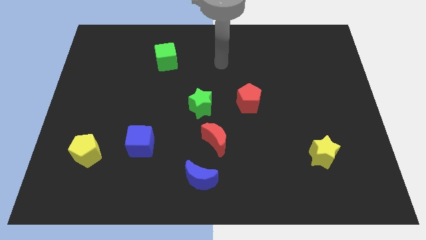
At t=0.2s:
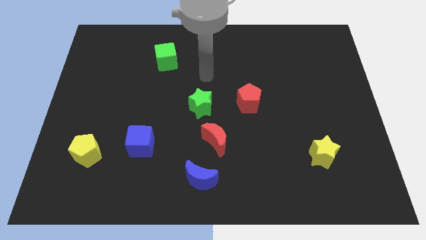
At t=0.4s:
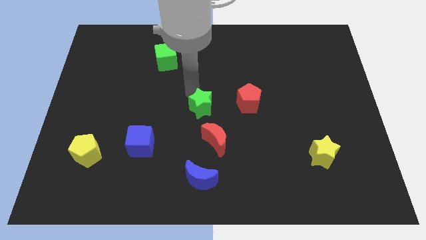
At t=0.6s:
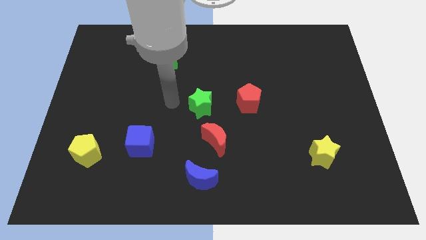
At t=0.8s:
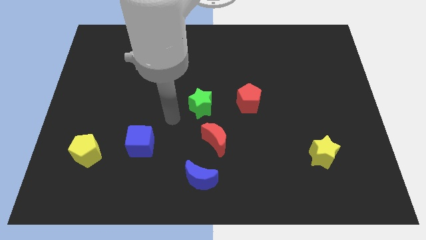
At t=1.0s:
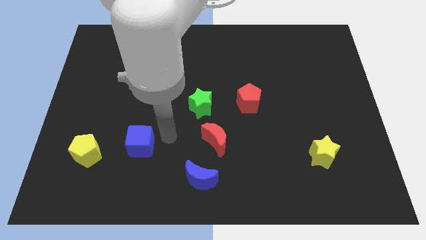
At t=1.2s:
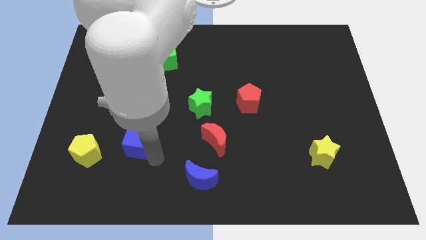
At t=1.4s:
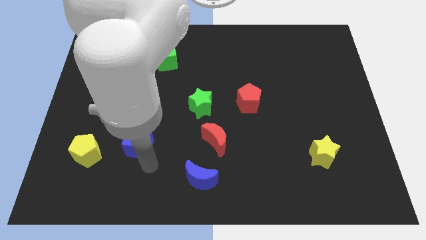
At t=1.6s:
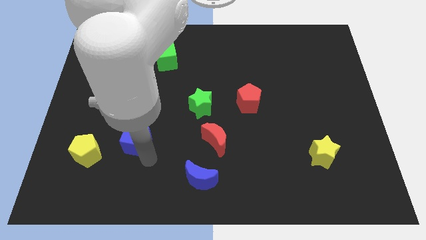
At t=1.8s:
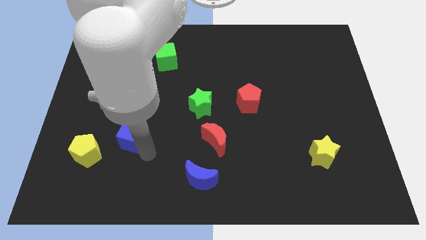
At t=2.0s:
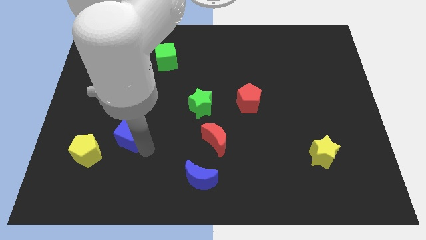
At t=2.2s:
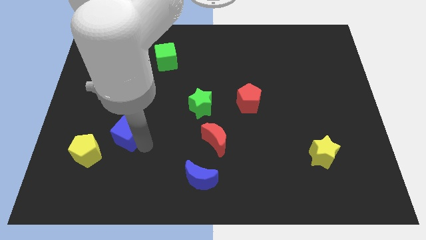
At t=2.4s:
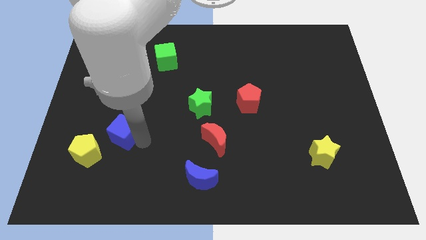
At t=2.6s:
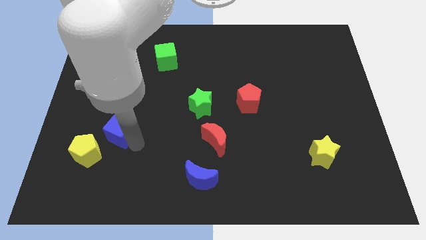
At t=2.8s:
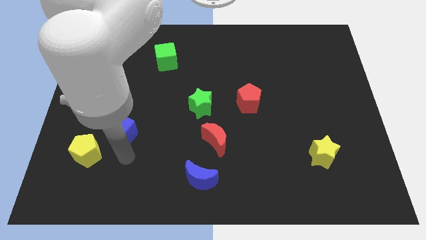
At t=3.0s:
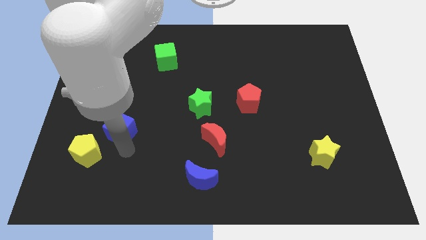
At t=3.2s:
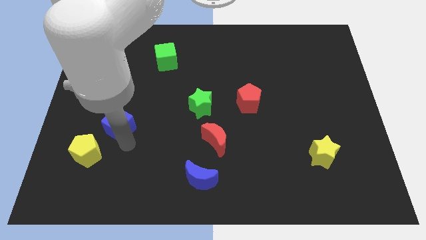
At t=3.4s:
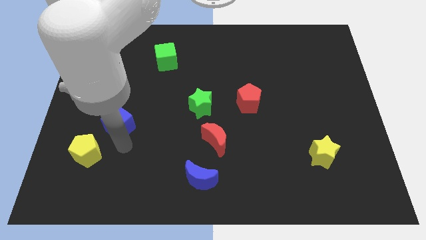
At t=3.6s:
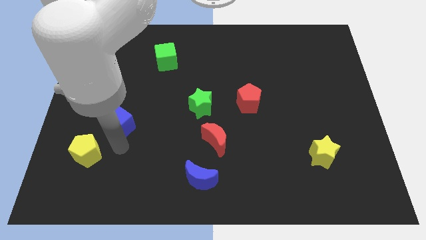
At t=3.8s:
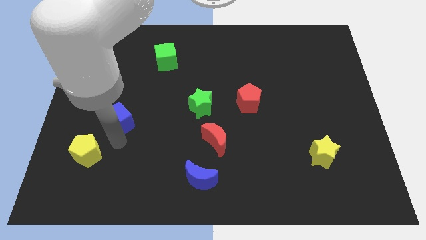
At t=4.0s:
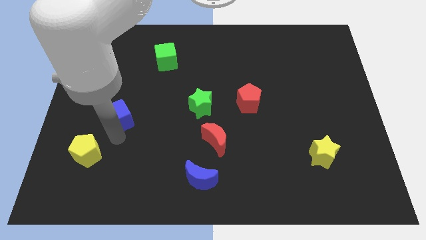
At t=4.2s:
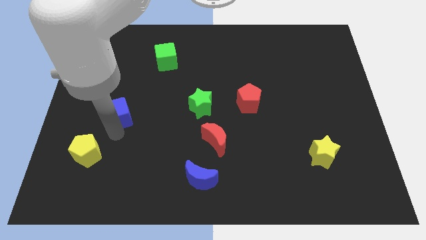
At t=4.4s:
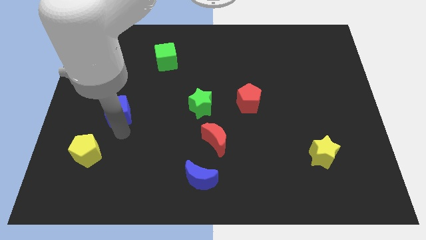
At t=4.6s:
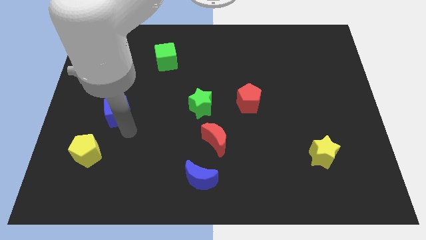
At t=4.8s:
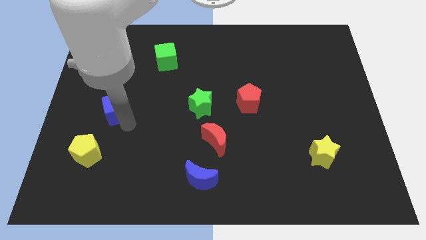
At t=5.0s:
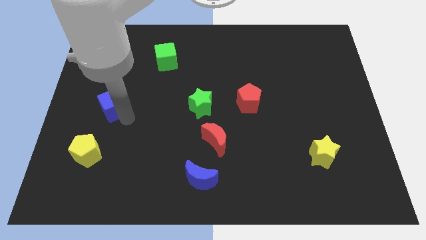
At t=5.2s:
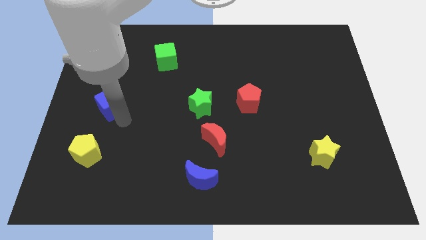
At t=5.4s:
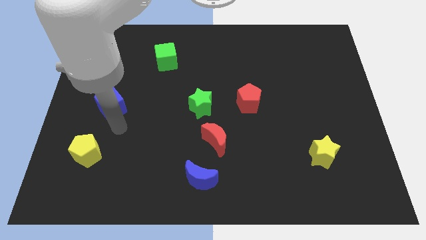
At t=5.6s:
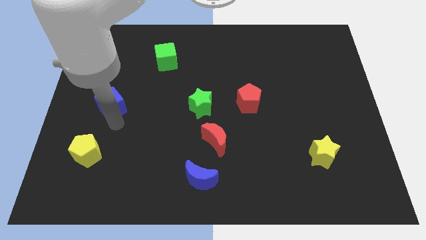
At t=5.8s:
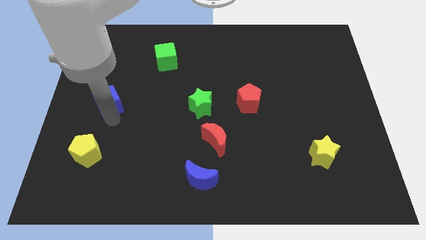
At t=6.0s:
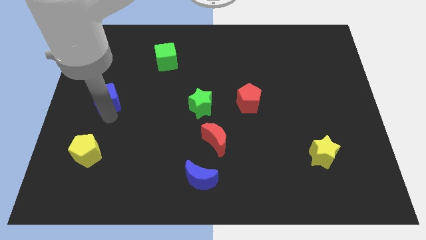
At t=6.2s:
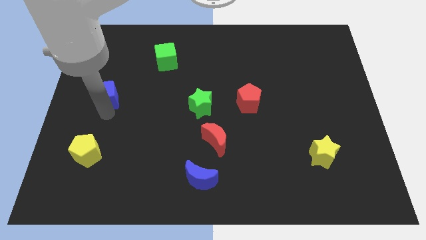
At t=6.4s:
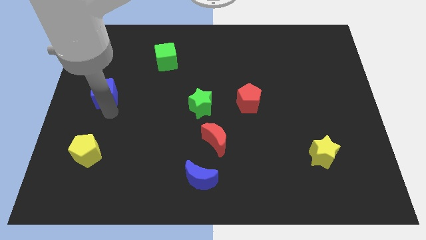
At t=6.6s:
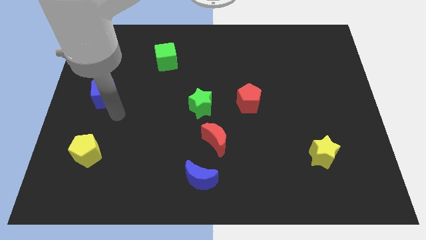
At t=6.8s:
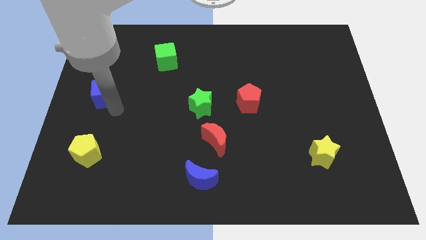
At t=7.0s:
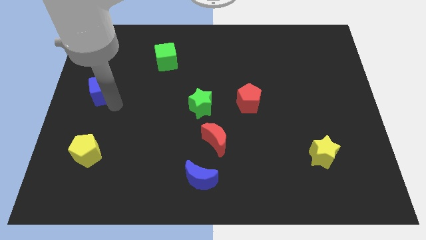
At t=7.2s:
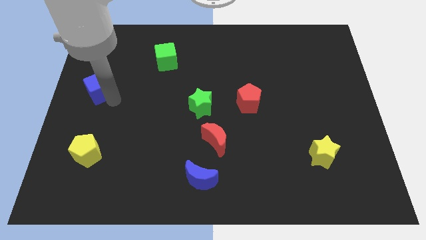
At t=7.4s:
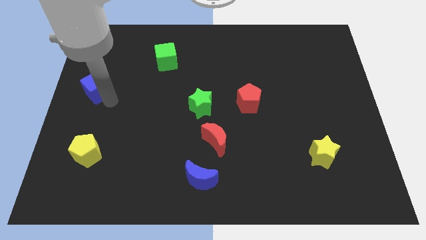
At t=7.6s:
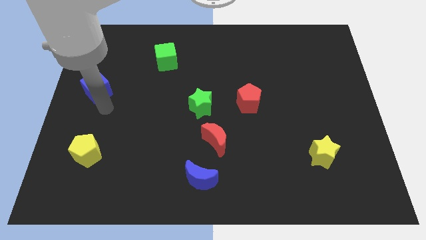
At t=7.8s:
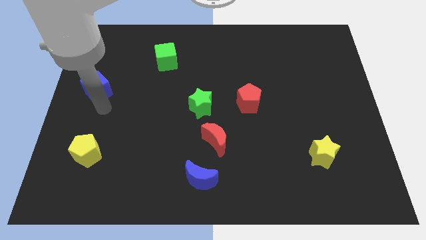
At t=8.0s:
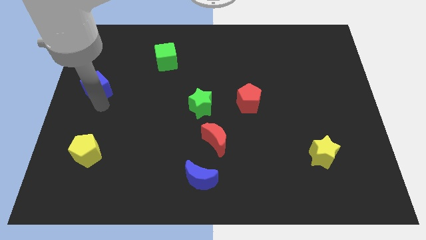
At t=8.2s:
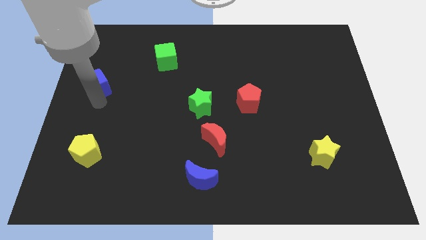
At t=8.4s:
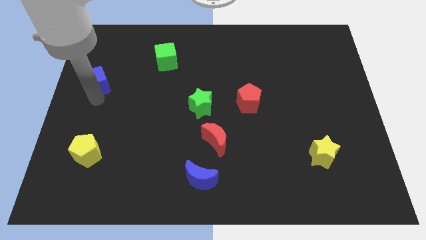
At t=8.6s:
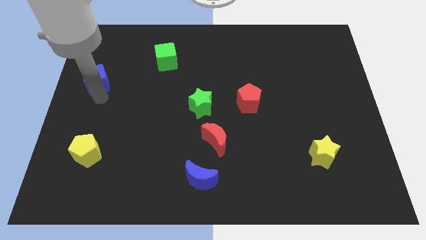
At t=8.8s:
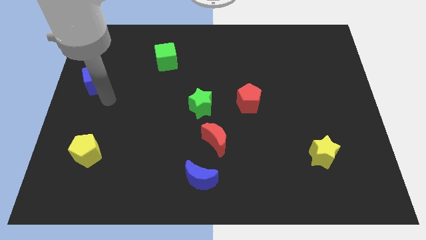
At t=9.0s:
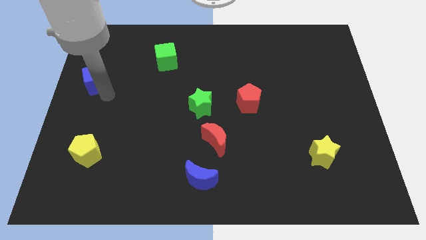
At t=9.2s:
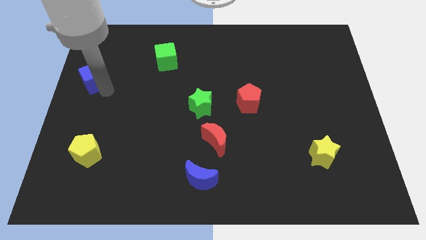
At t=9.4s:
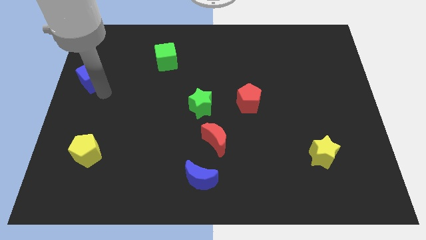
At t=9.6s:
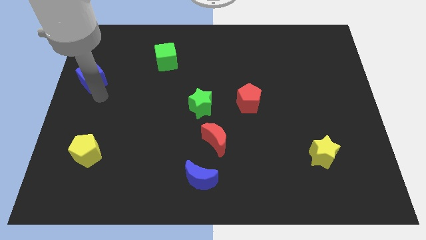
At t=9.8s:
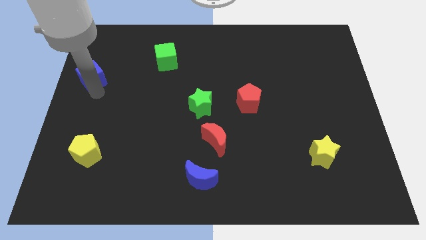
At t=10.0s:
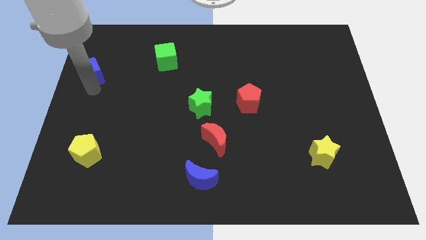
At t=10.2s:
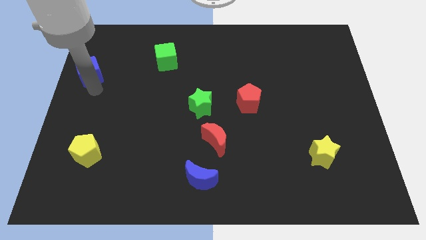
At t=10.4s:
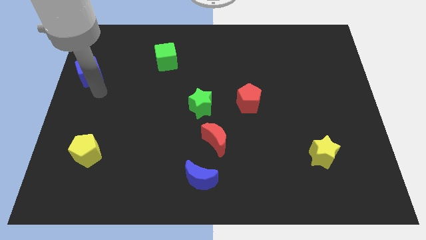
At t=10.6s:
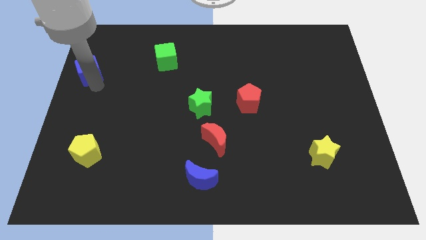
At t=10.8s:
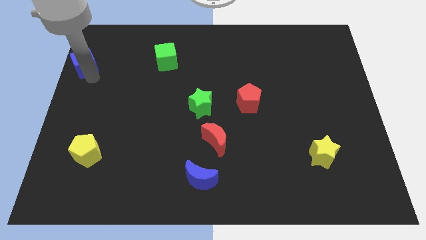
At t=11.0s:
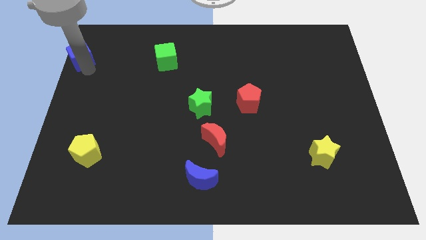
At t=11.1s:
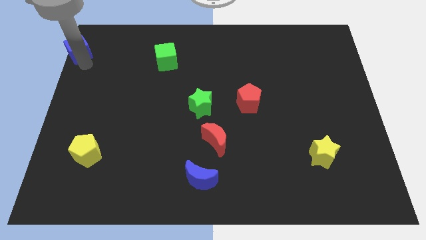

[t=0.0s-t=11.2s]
move the blue cube to the top left

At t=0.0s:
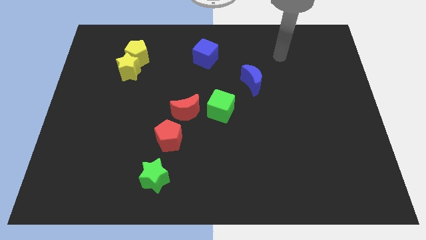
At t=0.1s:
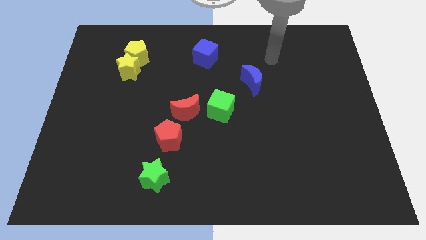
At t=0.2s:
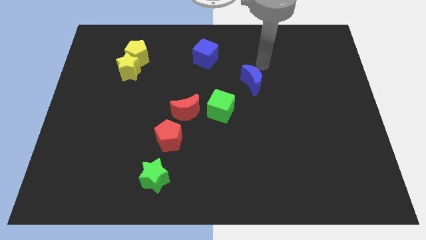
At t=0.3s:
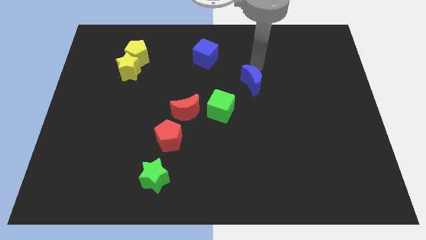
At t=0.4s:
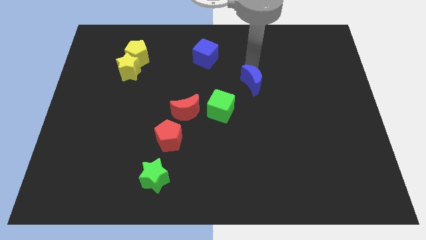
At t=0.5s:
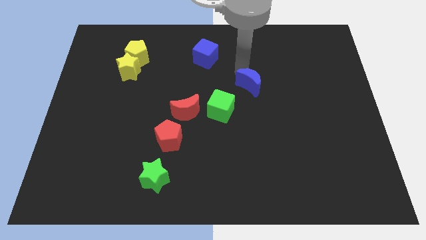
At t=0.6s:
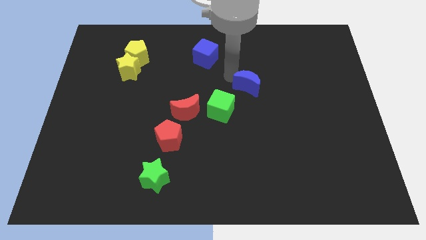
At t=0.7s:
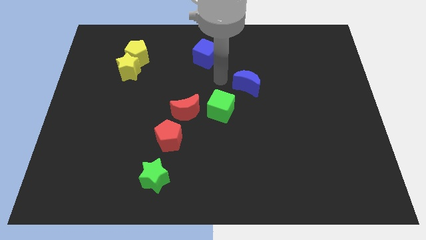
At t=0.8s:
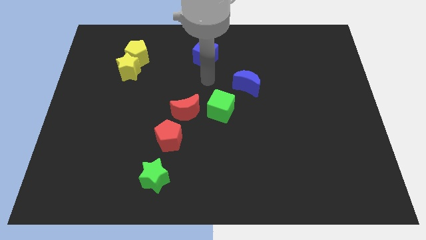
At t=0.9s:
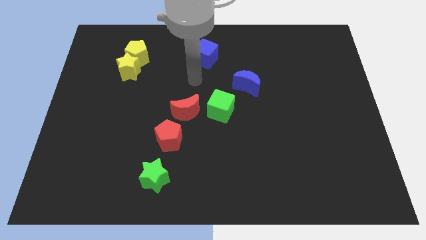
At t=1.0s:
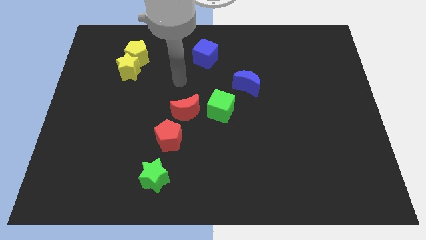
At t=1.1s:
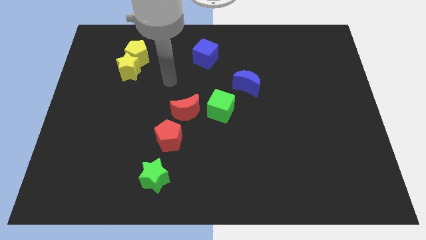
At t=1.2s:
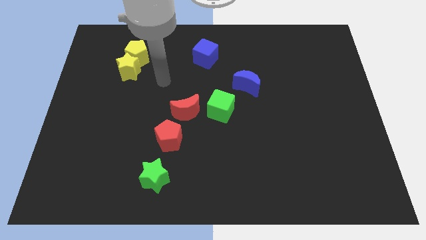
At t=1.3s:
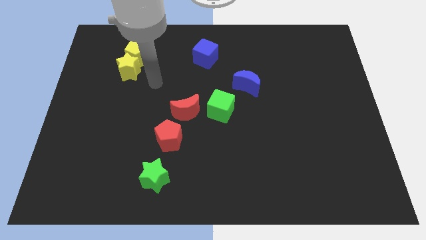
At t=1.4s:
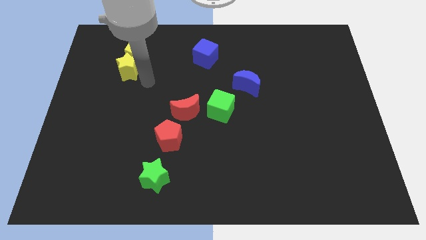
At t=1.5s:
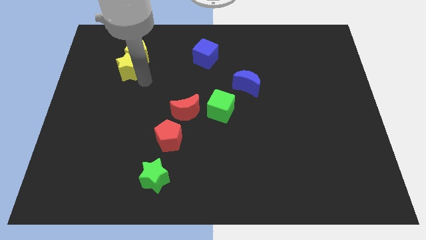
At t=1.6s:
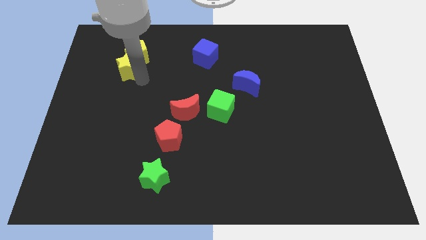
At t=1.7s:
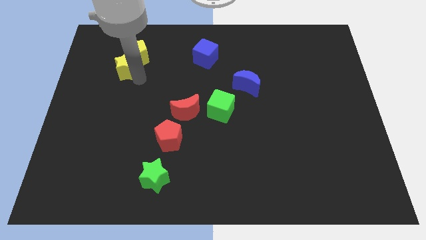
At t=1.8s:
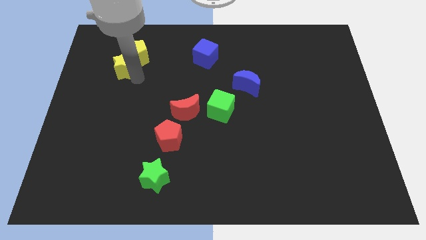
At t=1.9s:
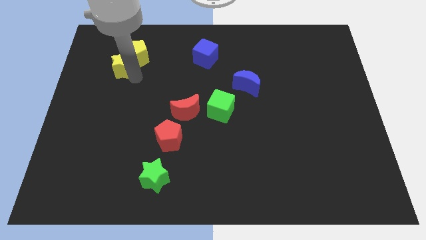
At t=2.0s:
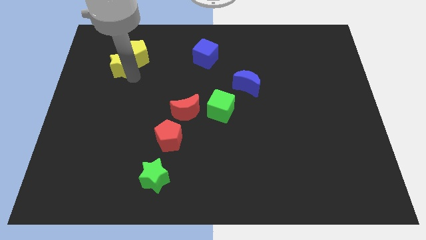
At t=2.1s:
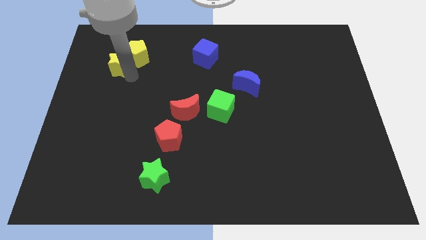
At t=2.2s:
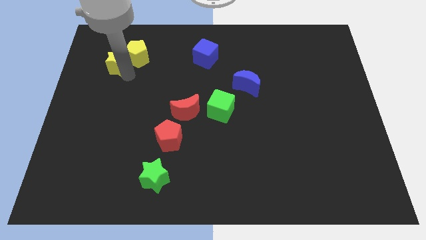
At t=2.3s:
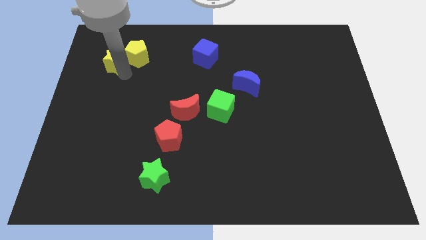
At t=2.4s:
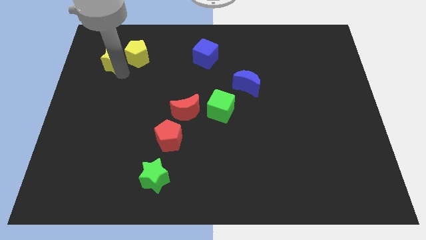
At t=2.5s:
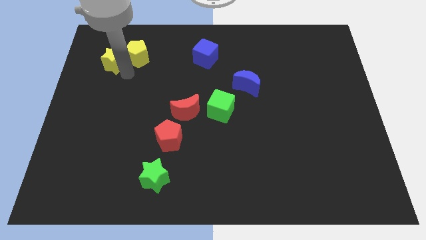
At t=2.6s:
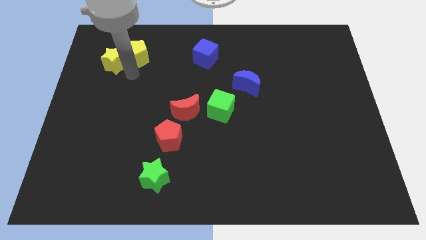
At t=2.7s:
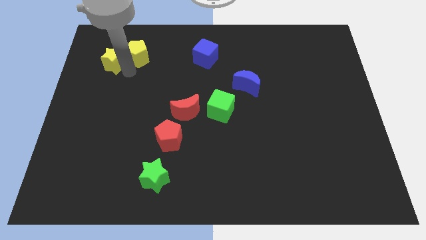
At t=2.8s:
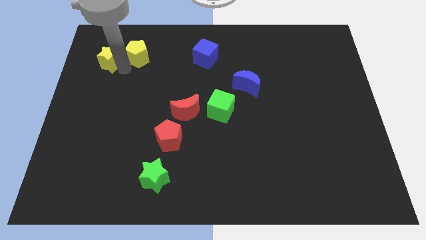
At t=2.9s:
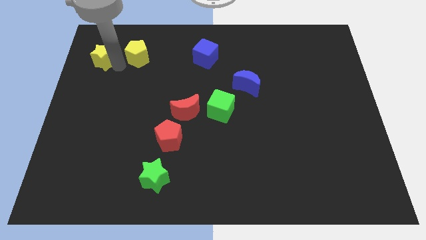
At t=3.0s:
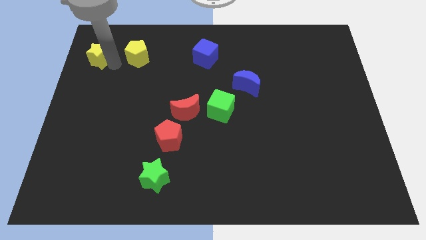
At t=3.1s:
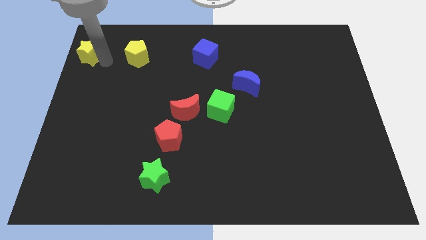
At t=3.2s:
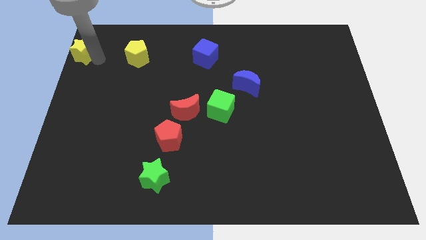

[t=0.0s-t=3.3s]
slide the yellow star to the top left
